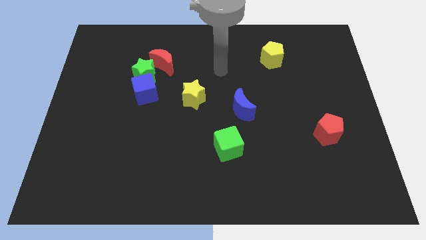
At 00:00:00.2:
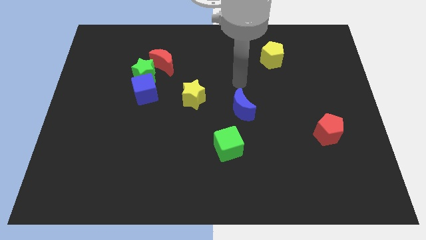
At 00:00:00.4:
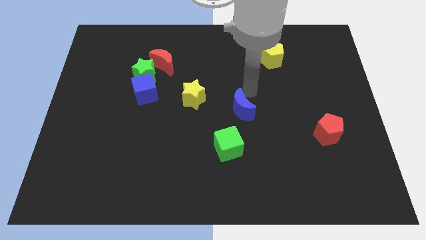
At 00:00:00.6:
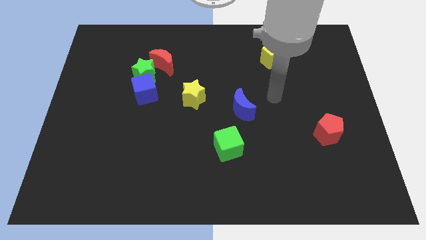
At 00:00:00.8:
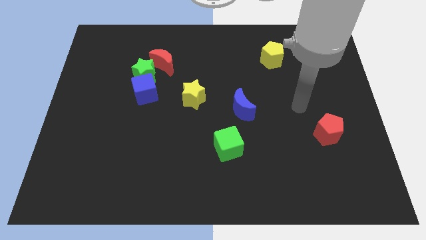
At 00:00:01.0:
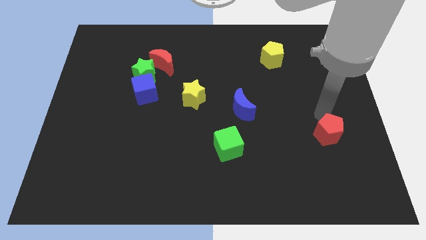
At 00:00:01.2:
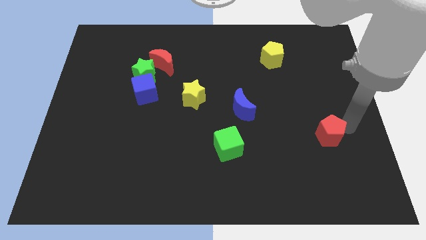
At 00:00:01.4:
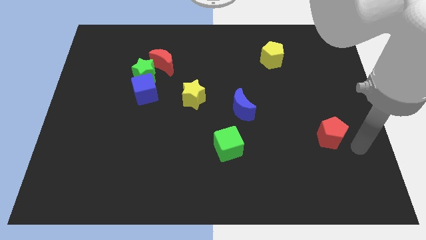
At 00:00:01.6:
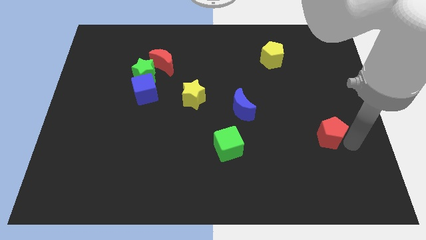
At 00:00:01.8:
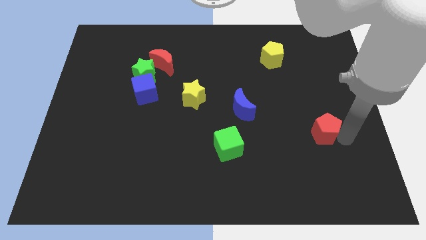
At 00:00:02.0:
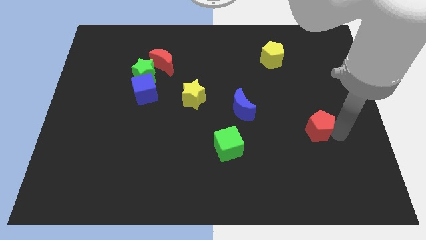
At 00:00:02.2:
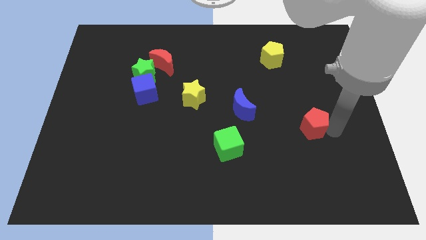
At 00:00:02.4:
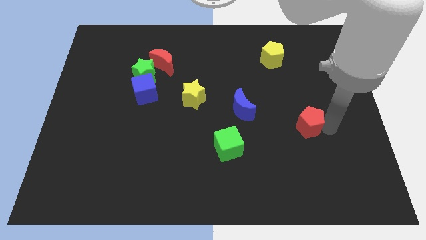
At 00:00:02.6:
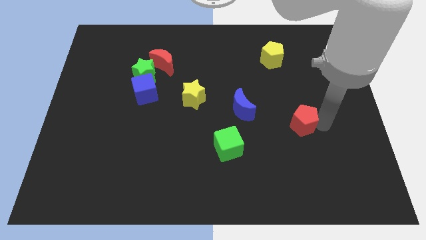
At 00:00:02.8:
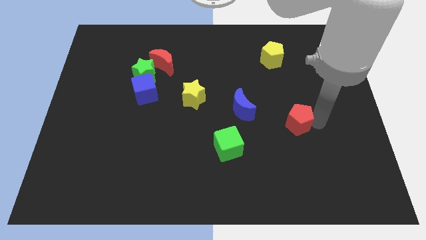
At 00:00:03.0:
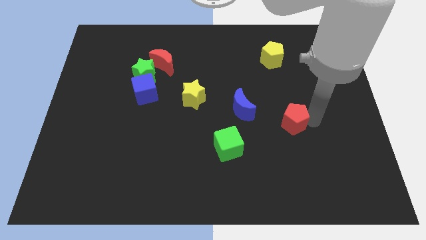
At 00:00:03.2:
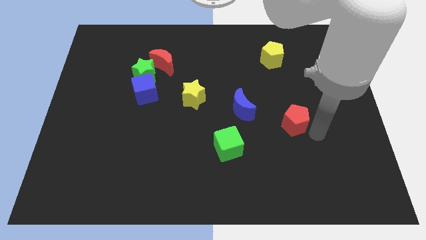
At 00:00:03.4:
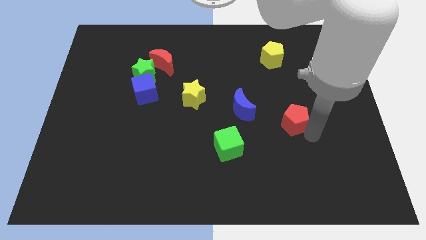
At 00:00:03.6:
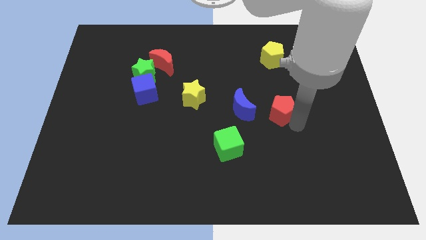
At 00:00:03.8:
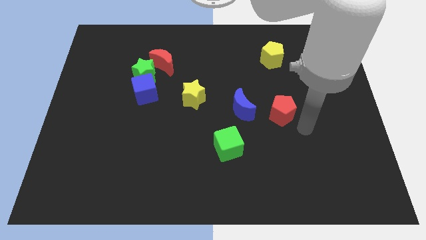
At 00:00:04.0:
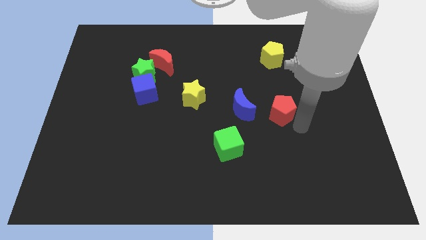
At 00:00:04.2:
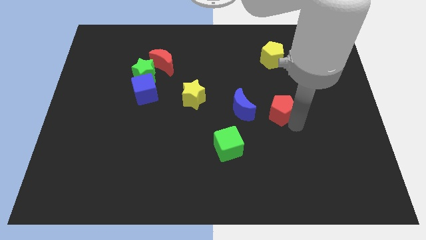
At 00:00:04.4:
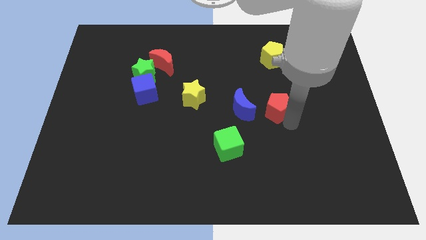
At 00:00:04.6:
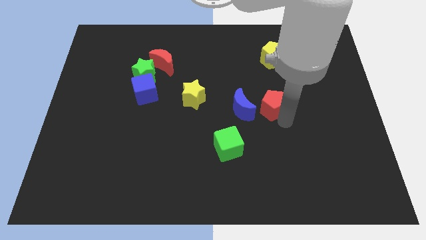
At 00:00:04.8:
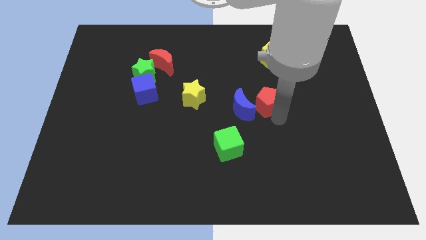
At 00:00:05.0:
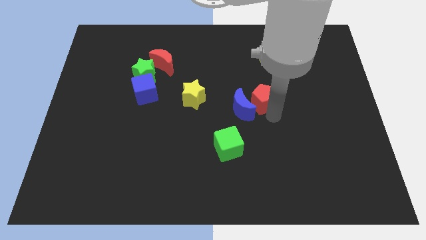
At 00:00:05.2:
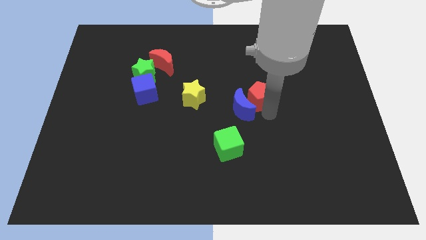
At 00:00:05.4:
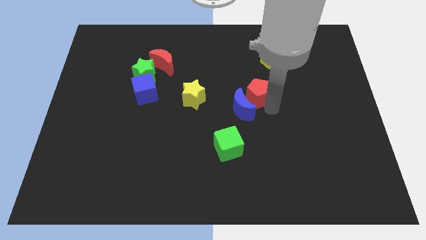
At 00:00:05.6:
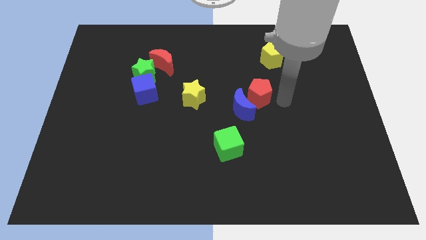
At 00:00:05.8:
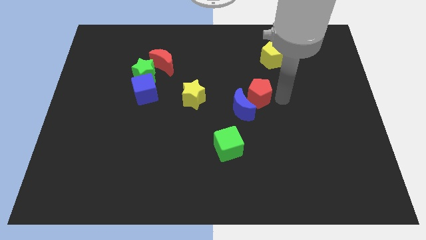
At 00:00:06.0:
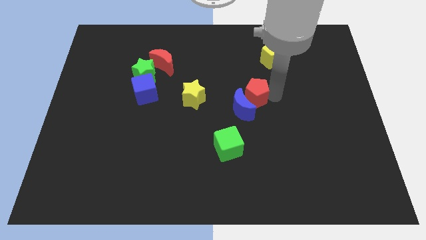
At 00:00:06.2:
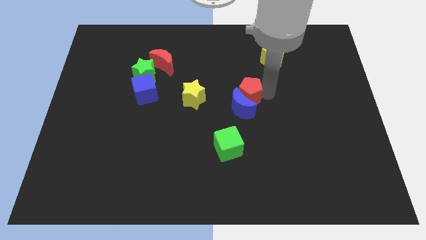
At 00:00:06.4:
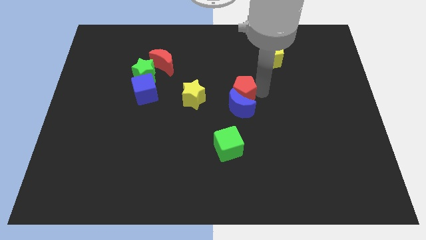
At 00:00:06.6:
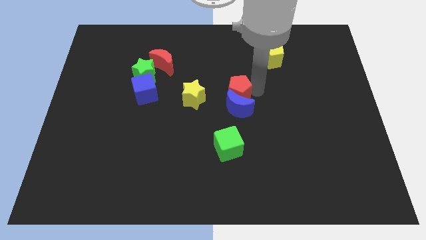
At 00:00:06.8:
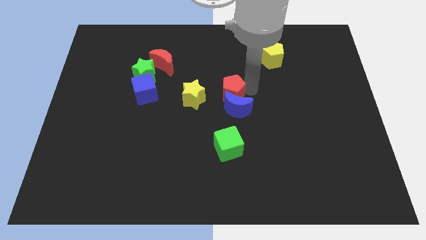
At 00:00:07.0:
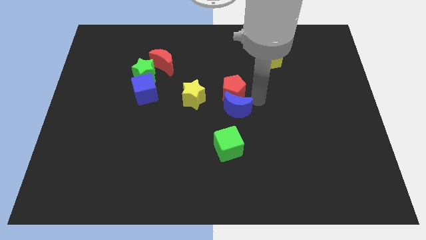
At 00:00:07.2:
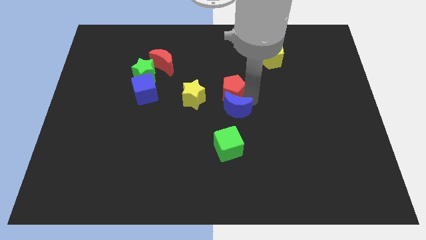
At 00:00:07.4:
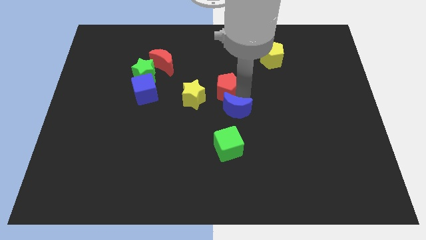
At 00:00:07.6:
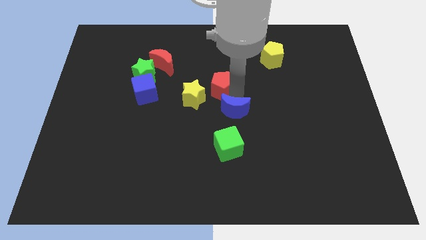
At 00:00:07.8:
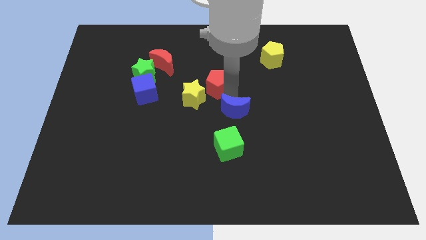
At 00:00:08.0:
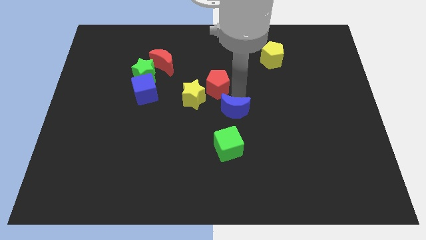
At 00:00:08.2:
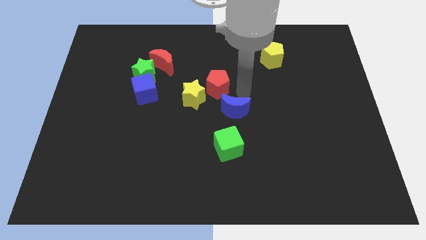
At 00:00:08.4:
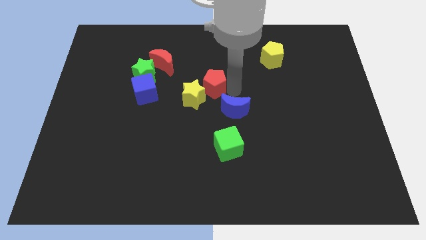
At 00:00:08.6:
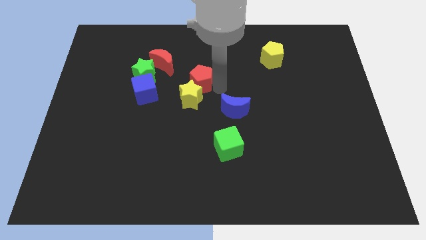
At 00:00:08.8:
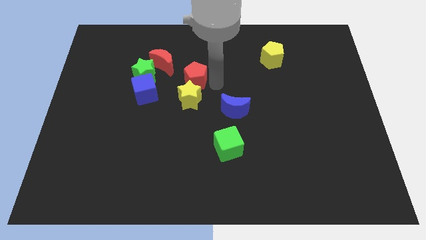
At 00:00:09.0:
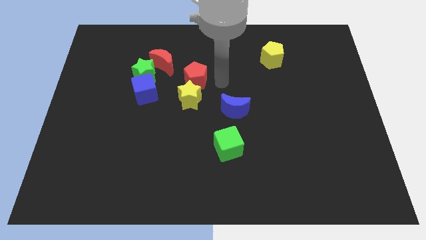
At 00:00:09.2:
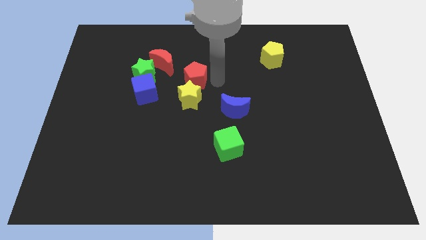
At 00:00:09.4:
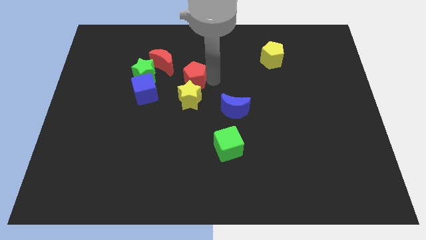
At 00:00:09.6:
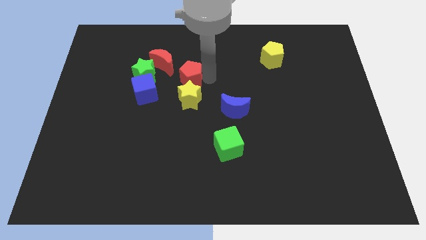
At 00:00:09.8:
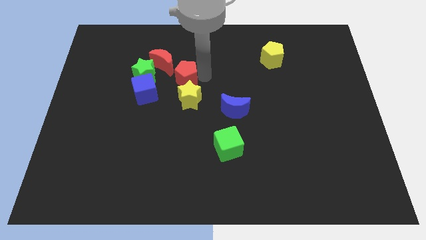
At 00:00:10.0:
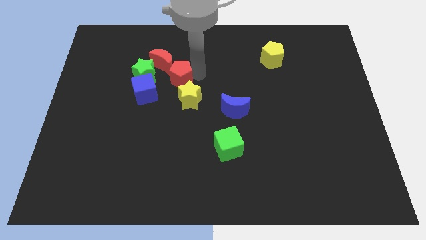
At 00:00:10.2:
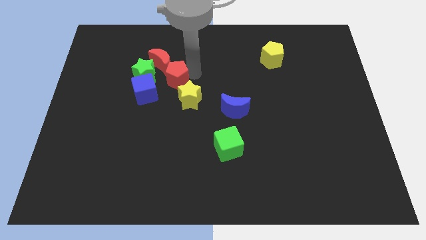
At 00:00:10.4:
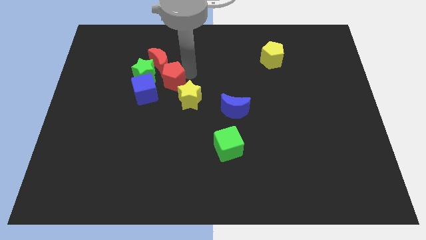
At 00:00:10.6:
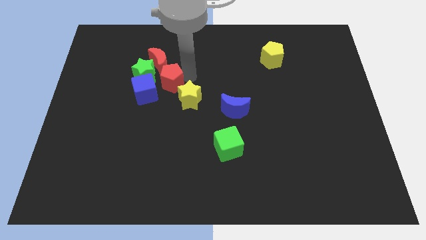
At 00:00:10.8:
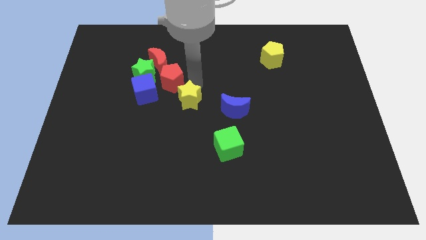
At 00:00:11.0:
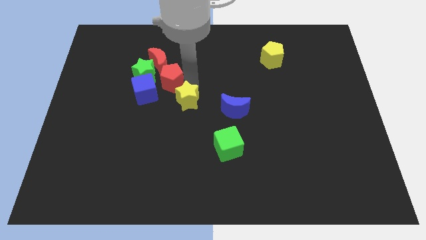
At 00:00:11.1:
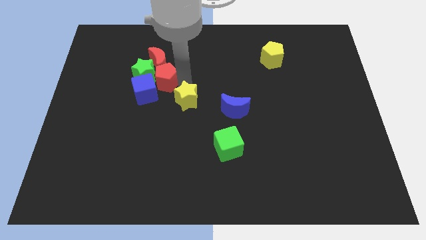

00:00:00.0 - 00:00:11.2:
slide the red pentagon towards the green star

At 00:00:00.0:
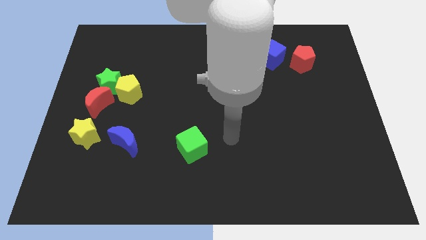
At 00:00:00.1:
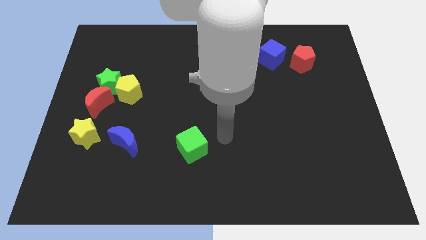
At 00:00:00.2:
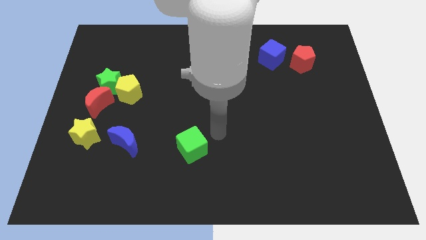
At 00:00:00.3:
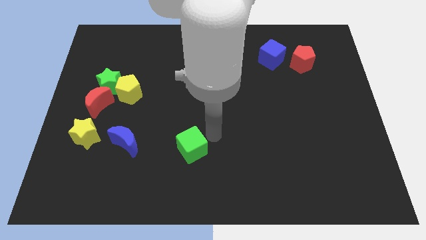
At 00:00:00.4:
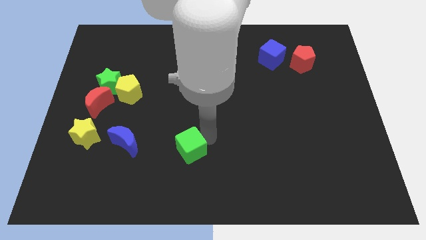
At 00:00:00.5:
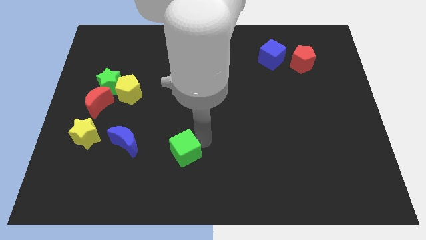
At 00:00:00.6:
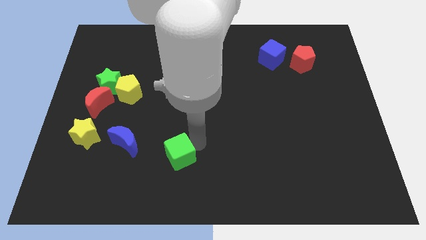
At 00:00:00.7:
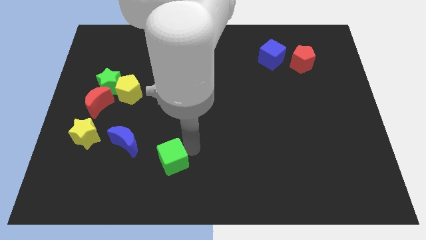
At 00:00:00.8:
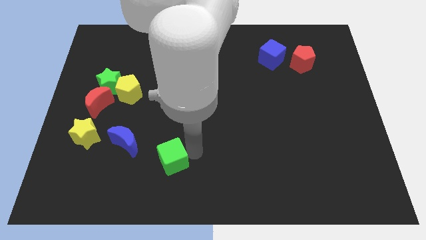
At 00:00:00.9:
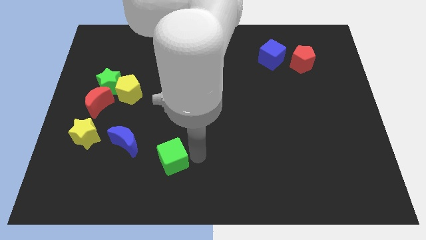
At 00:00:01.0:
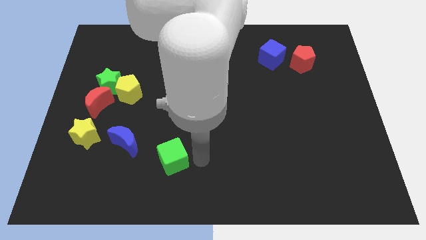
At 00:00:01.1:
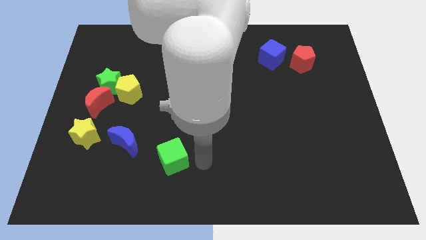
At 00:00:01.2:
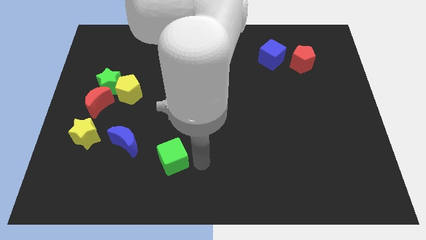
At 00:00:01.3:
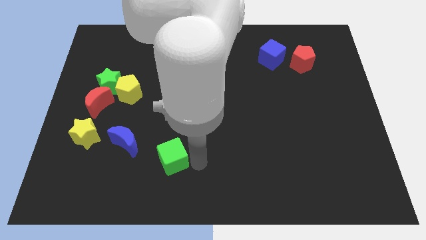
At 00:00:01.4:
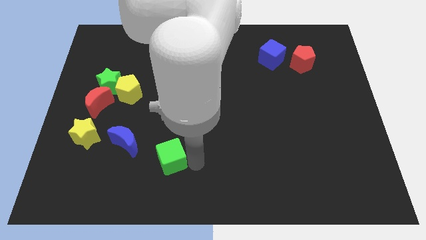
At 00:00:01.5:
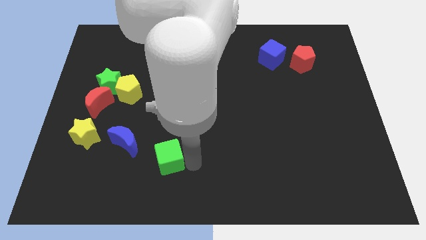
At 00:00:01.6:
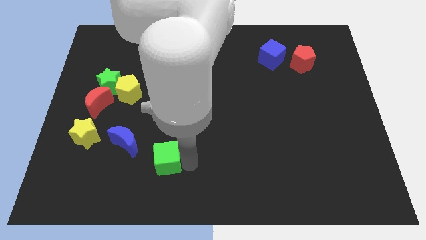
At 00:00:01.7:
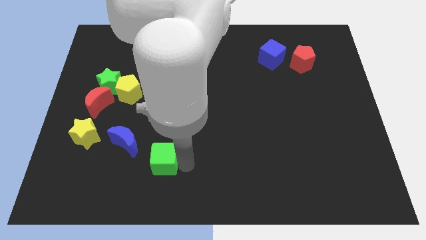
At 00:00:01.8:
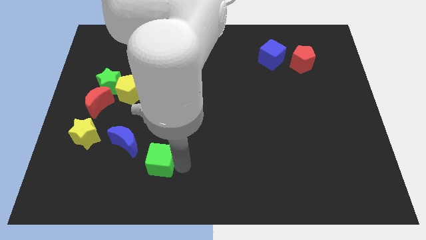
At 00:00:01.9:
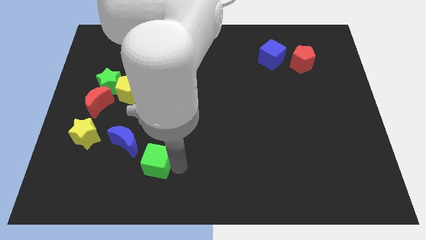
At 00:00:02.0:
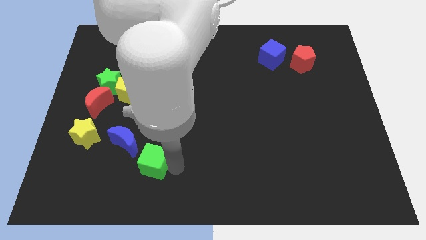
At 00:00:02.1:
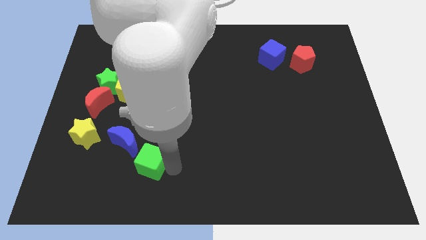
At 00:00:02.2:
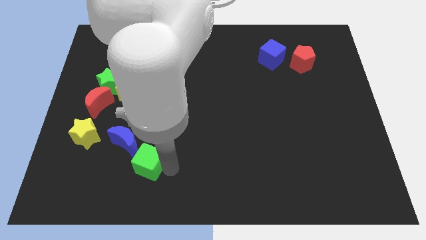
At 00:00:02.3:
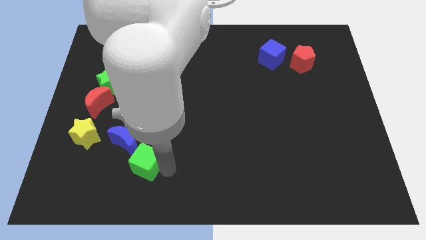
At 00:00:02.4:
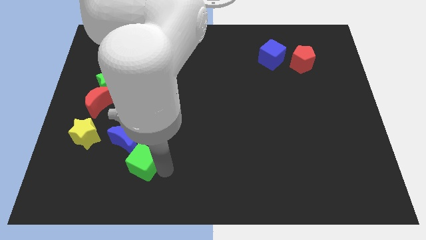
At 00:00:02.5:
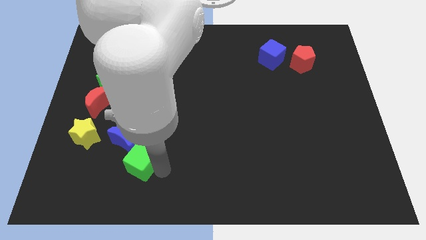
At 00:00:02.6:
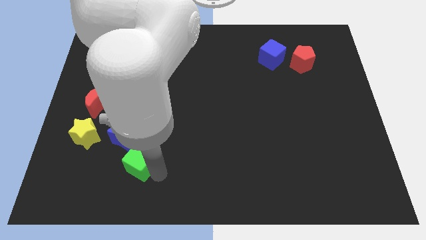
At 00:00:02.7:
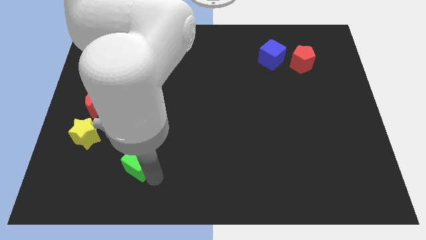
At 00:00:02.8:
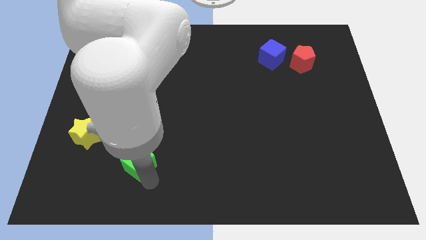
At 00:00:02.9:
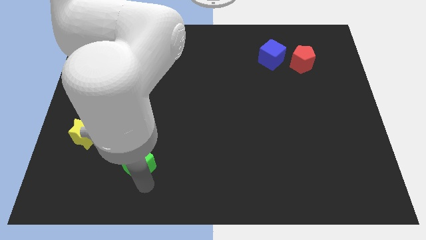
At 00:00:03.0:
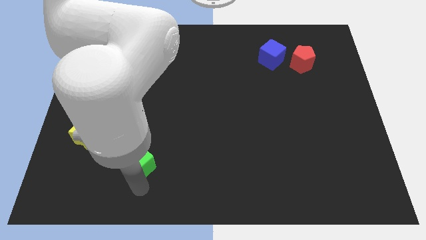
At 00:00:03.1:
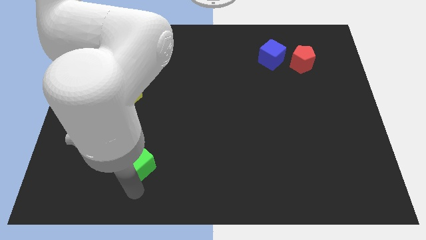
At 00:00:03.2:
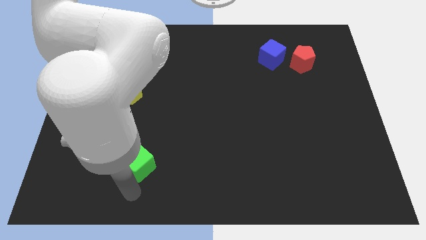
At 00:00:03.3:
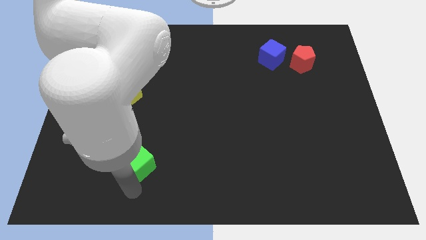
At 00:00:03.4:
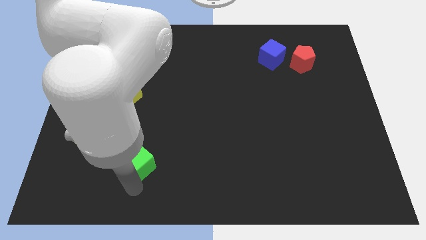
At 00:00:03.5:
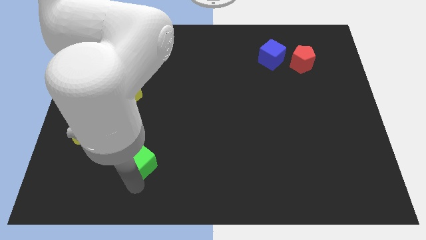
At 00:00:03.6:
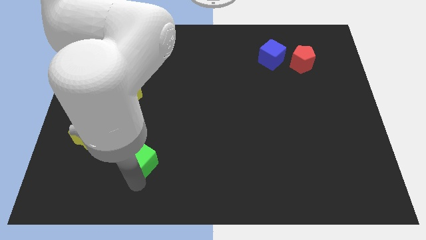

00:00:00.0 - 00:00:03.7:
slide the green cube towards the blue moon
